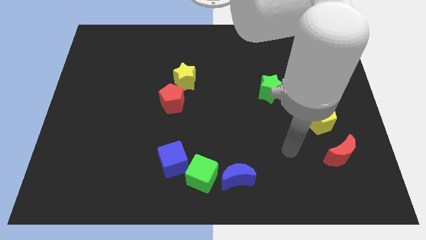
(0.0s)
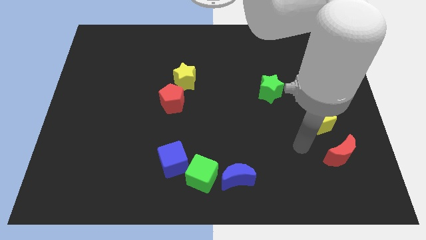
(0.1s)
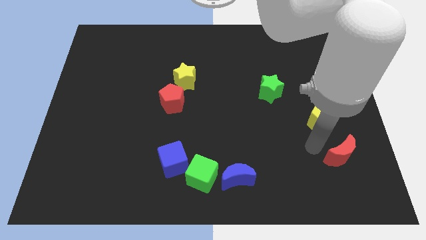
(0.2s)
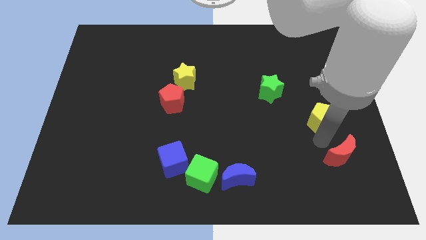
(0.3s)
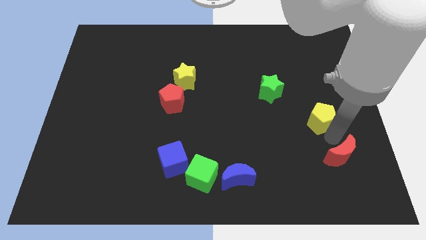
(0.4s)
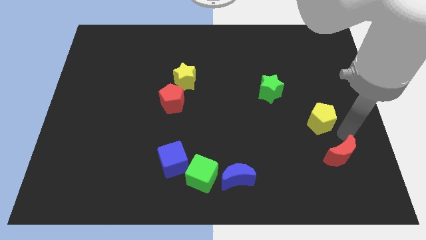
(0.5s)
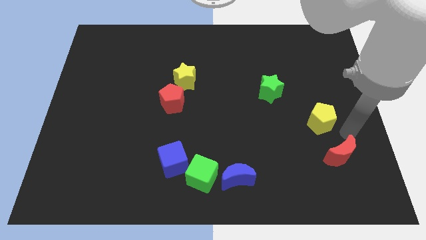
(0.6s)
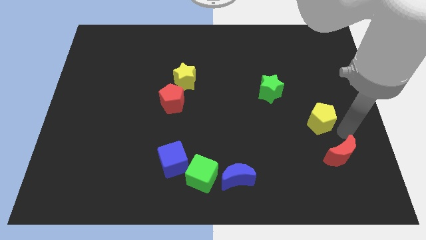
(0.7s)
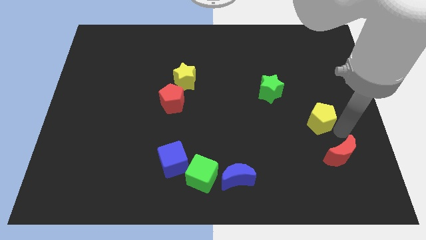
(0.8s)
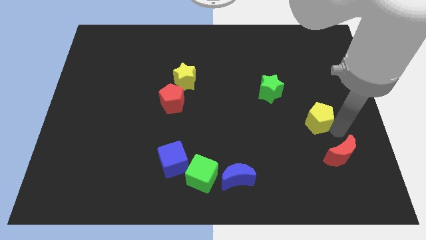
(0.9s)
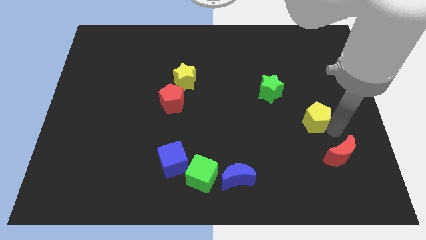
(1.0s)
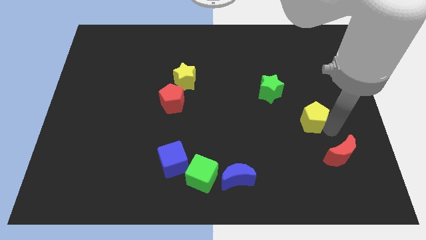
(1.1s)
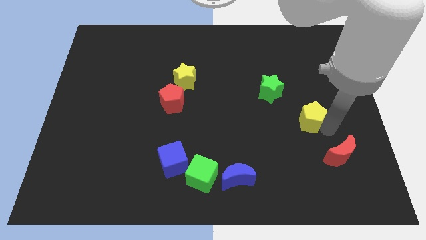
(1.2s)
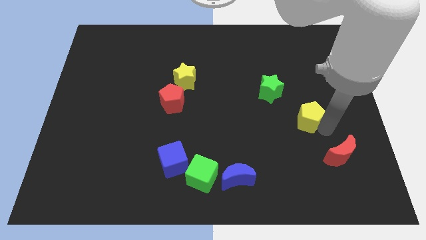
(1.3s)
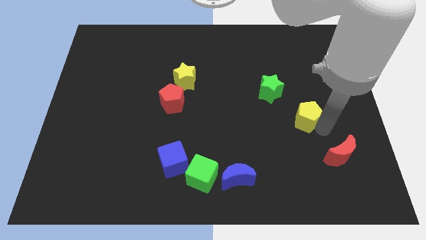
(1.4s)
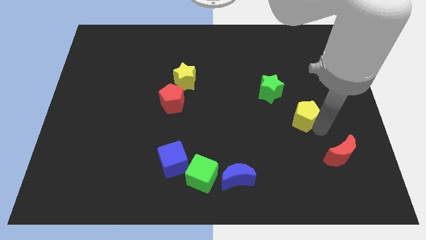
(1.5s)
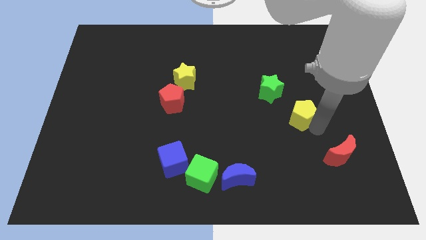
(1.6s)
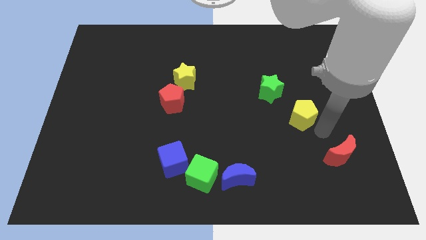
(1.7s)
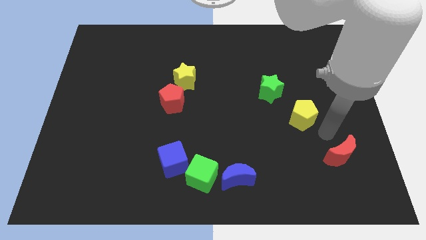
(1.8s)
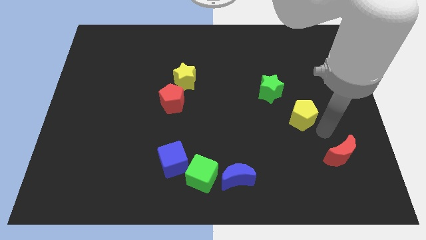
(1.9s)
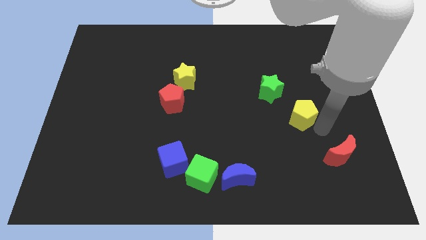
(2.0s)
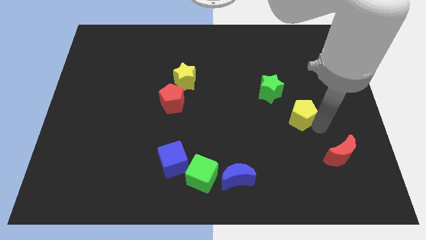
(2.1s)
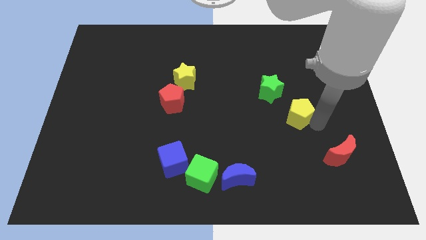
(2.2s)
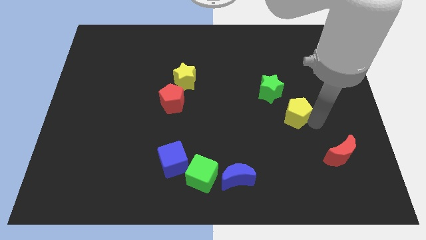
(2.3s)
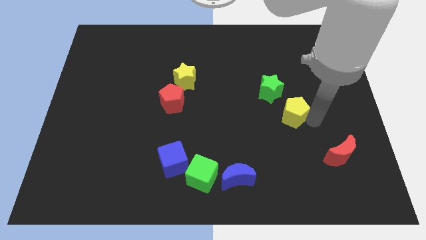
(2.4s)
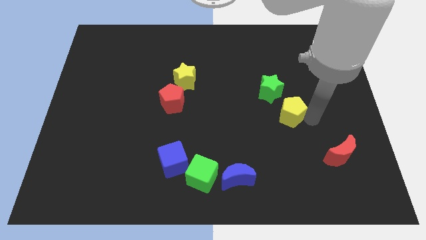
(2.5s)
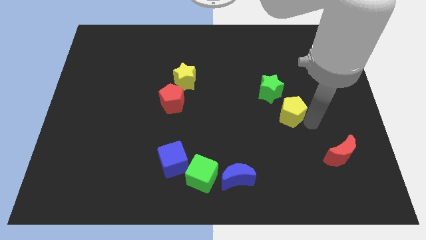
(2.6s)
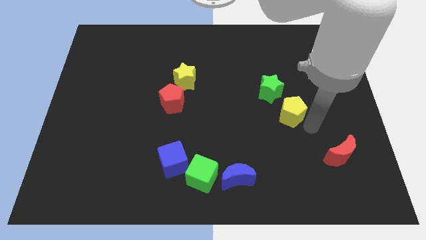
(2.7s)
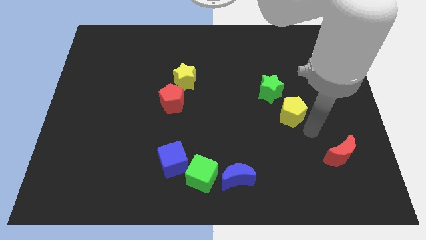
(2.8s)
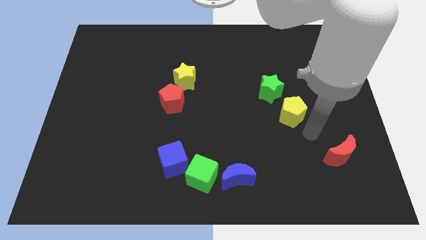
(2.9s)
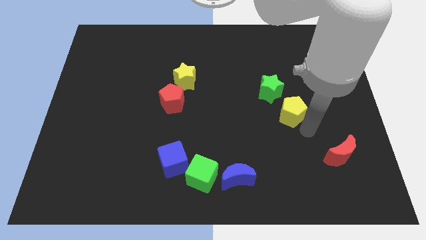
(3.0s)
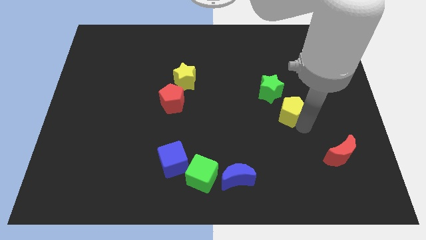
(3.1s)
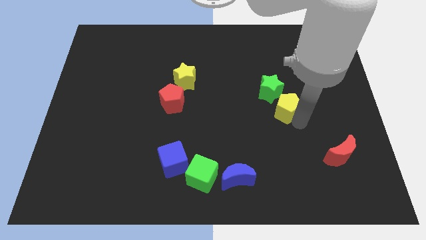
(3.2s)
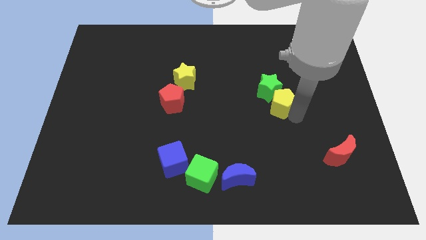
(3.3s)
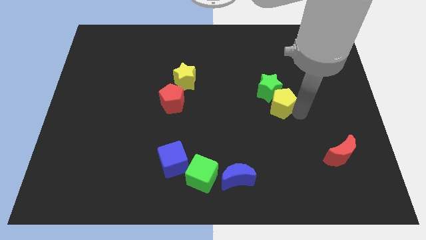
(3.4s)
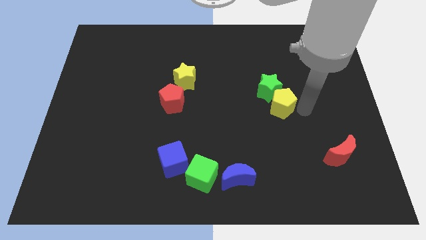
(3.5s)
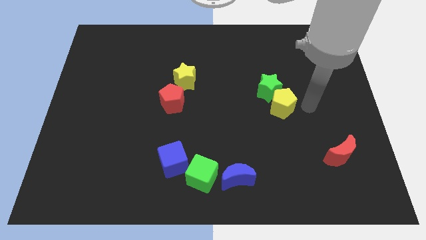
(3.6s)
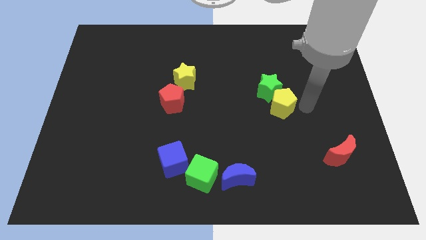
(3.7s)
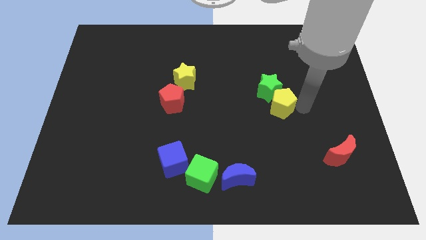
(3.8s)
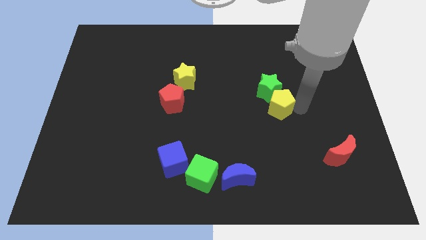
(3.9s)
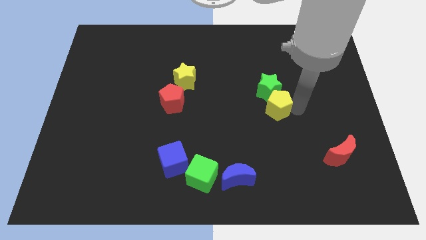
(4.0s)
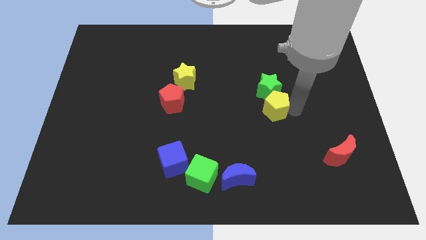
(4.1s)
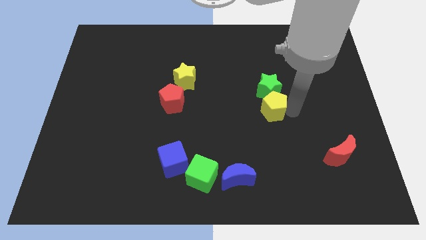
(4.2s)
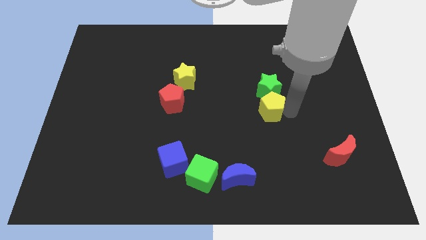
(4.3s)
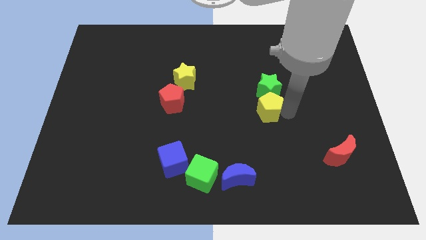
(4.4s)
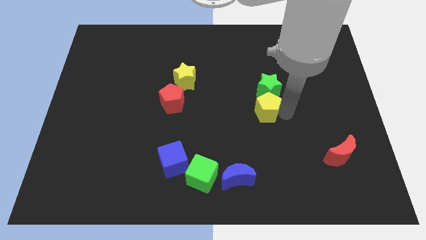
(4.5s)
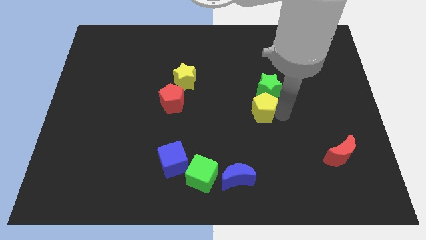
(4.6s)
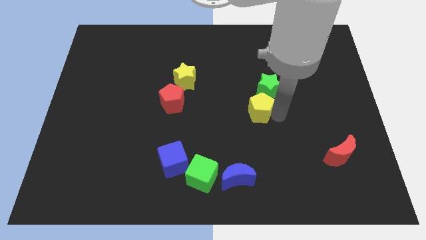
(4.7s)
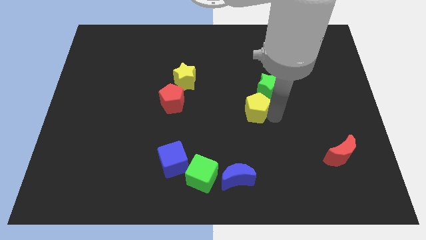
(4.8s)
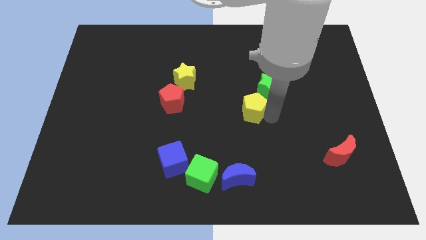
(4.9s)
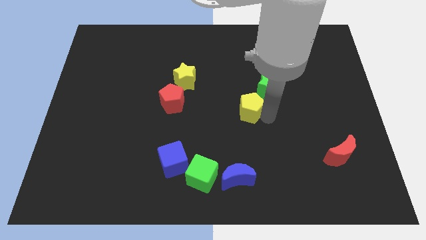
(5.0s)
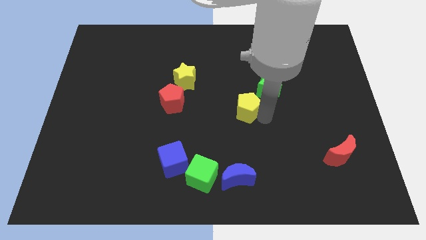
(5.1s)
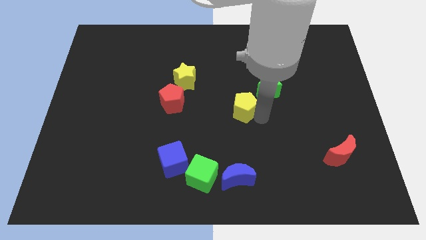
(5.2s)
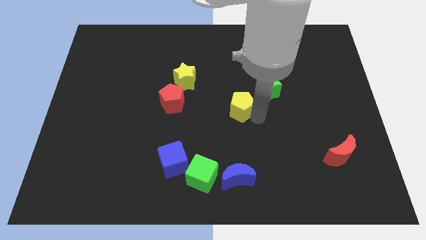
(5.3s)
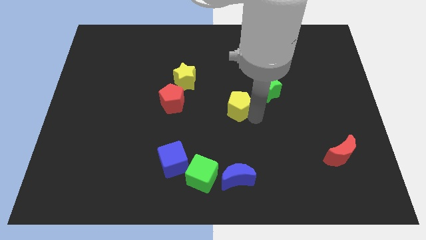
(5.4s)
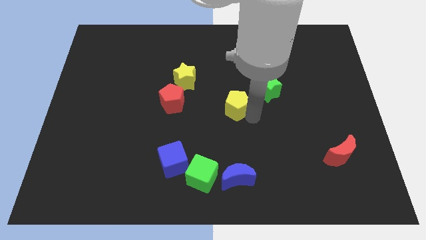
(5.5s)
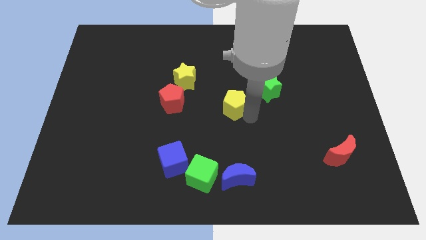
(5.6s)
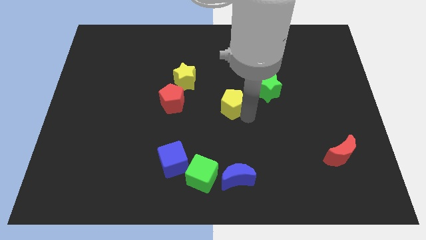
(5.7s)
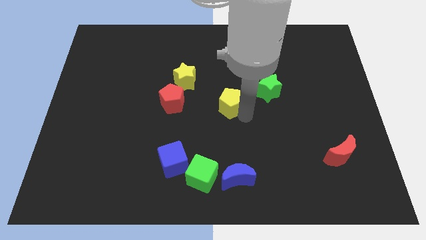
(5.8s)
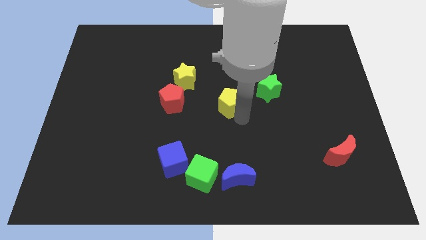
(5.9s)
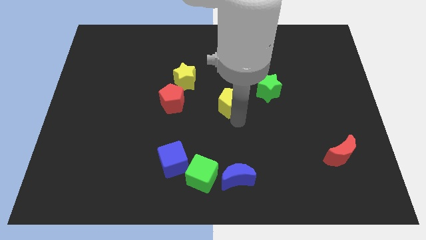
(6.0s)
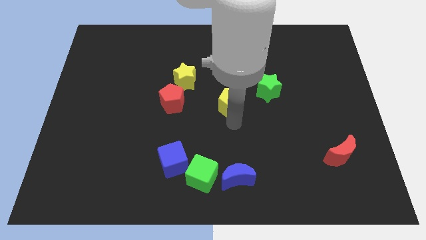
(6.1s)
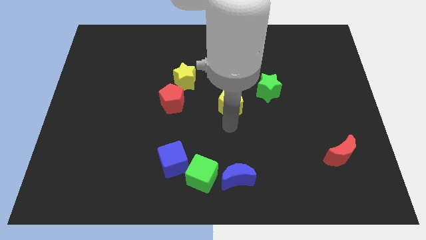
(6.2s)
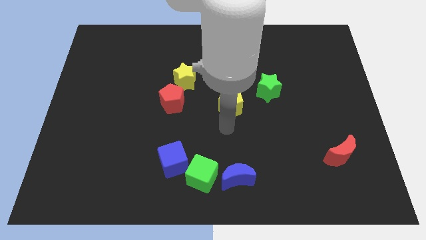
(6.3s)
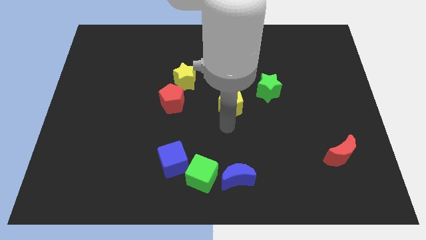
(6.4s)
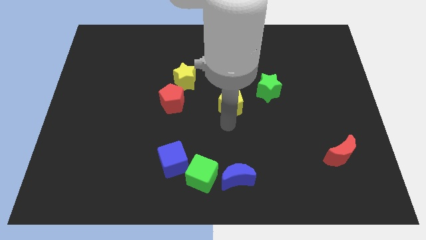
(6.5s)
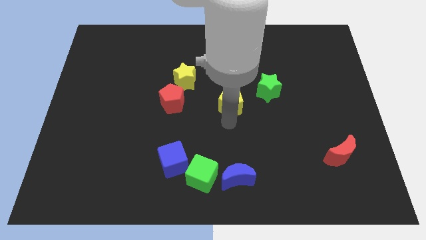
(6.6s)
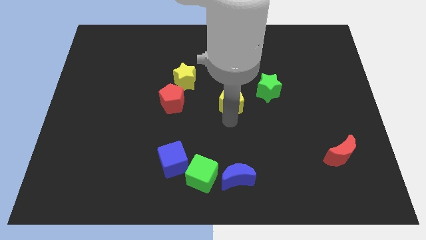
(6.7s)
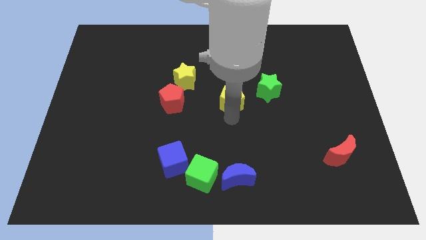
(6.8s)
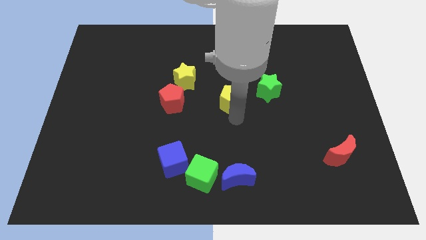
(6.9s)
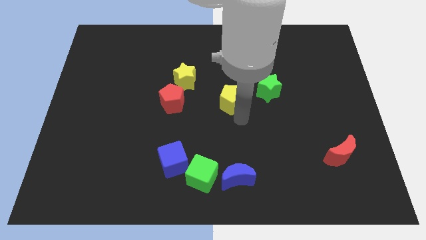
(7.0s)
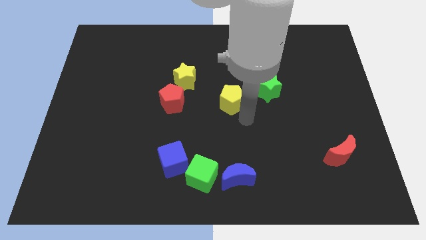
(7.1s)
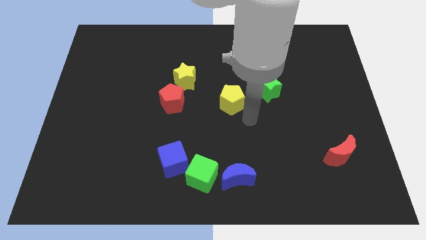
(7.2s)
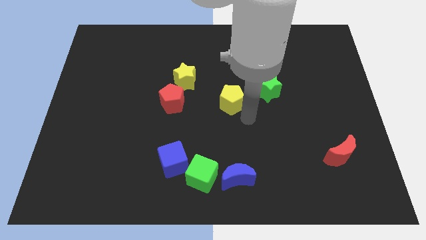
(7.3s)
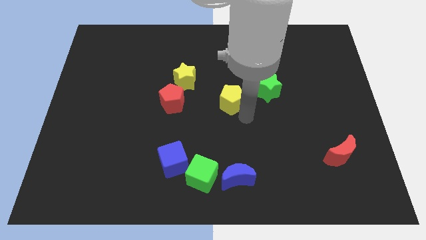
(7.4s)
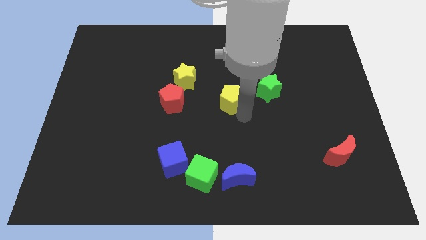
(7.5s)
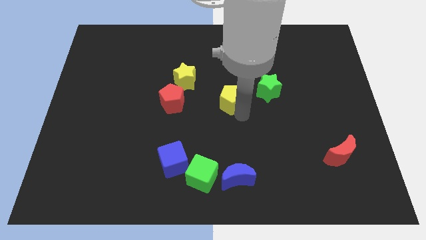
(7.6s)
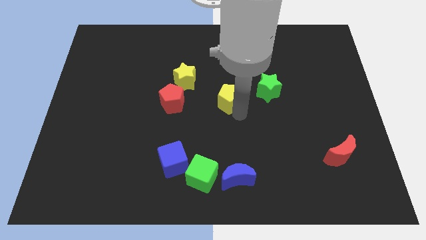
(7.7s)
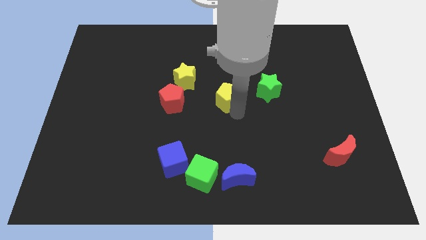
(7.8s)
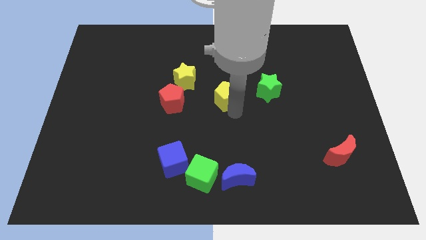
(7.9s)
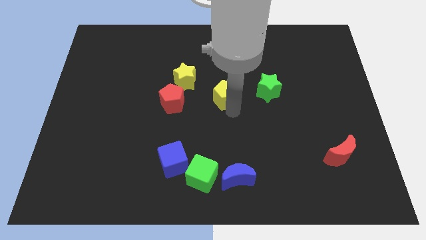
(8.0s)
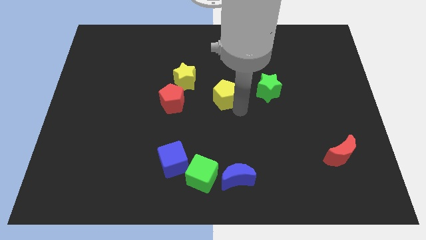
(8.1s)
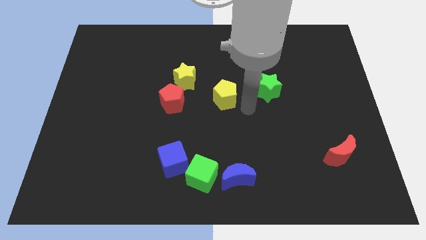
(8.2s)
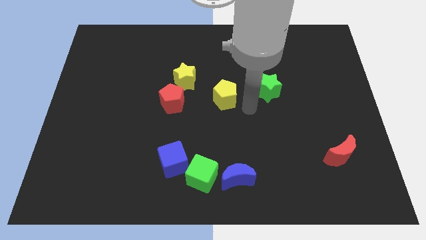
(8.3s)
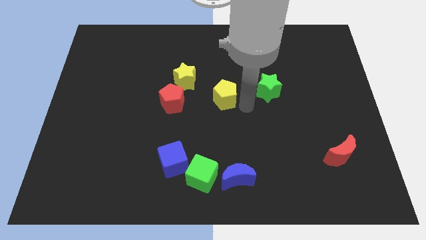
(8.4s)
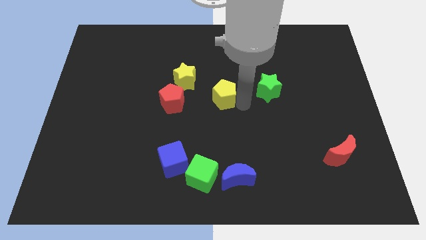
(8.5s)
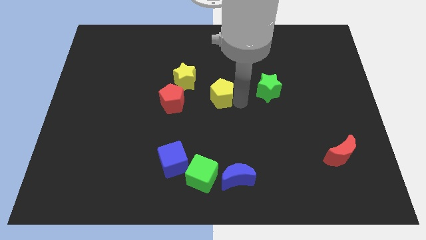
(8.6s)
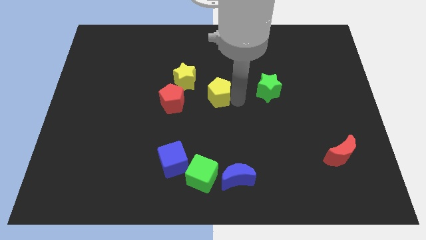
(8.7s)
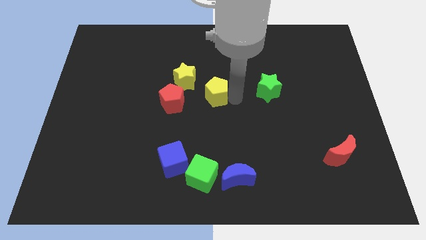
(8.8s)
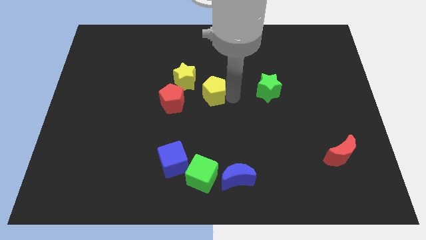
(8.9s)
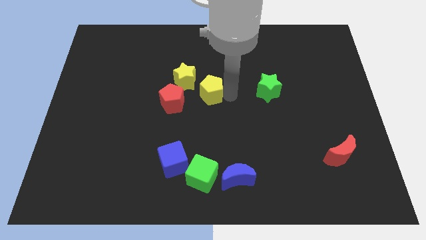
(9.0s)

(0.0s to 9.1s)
push the yellow pentagon diagonally up and to the right of the red pentagon
